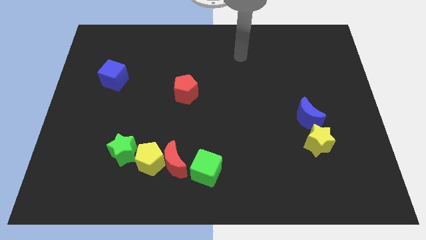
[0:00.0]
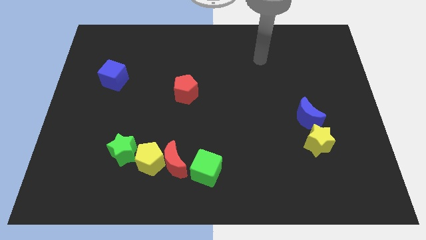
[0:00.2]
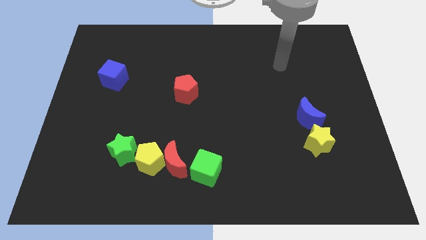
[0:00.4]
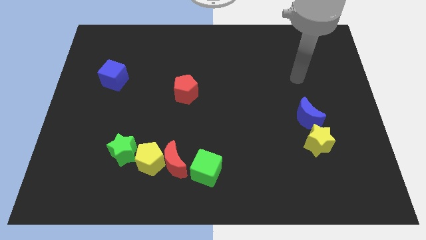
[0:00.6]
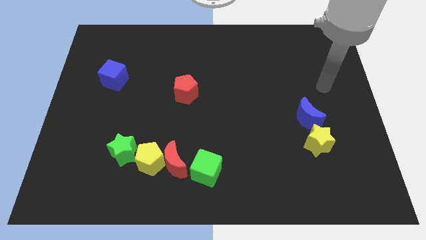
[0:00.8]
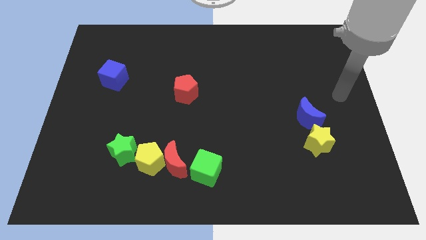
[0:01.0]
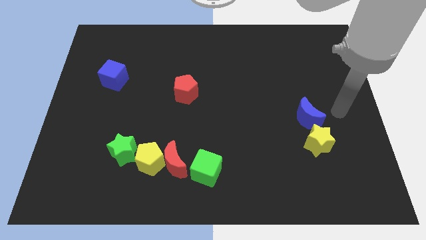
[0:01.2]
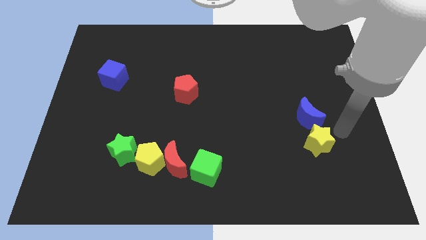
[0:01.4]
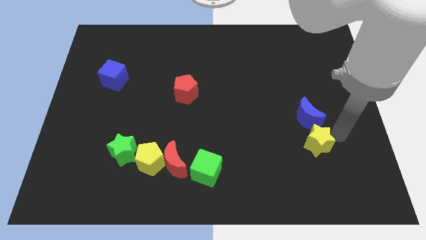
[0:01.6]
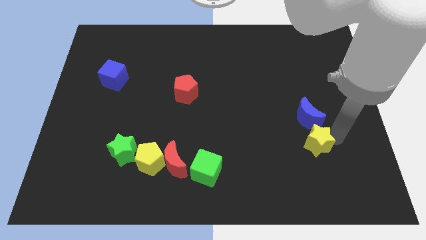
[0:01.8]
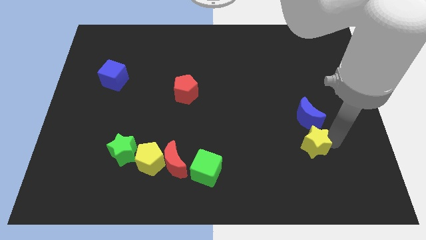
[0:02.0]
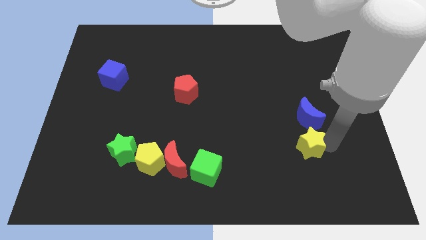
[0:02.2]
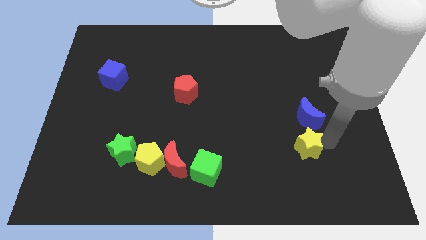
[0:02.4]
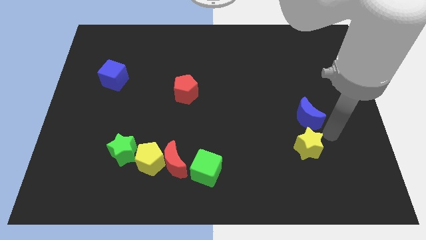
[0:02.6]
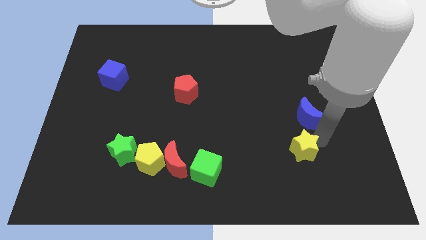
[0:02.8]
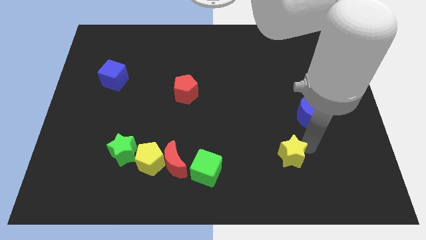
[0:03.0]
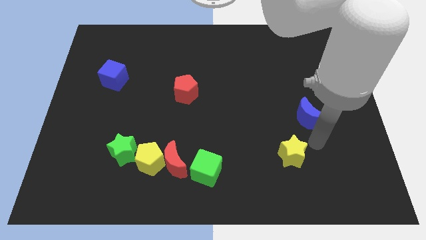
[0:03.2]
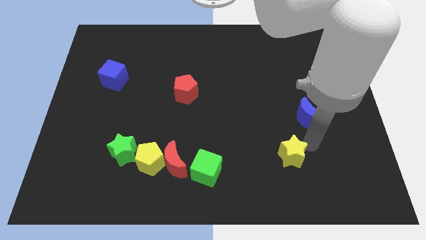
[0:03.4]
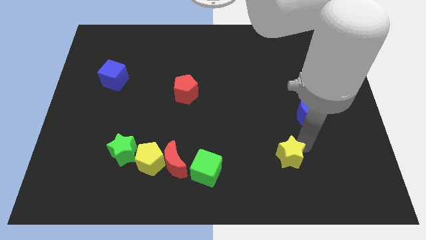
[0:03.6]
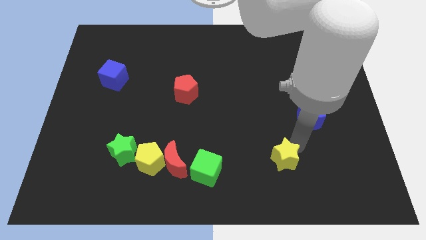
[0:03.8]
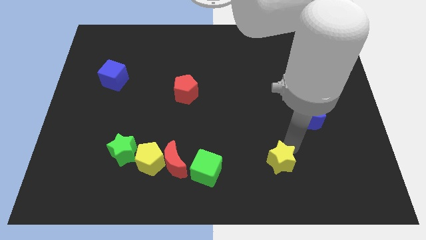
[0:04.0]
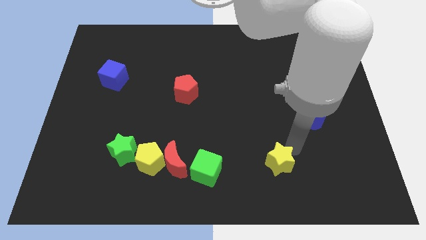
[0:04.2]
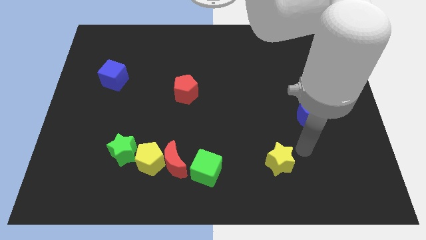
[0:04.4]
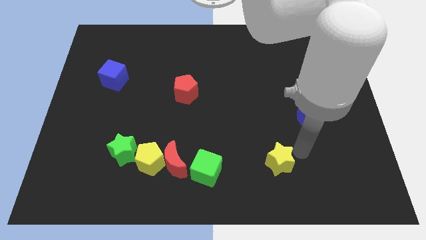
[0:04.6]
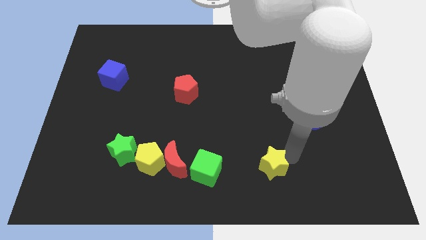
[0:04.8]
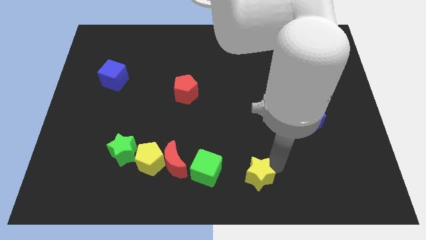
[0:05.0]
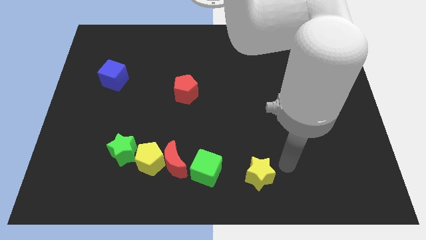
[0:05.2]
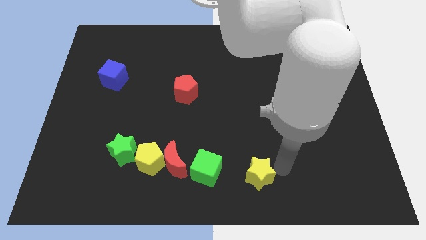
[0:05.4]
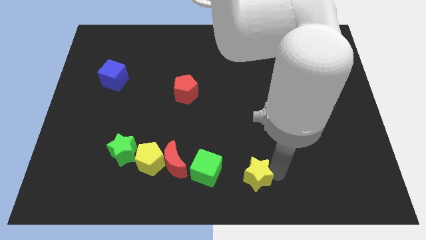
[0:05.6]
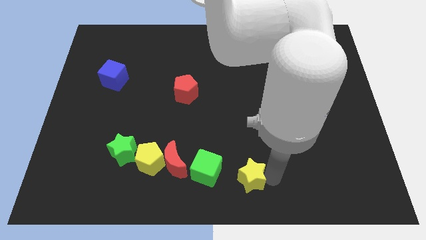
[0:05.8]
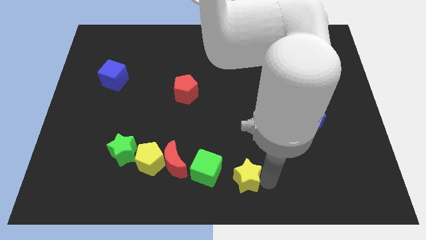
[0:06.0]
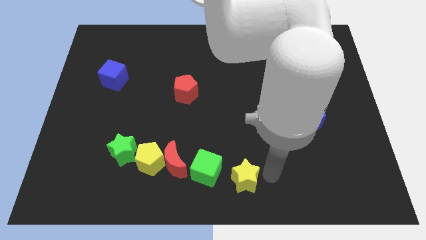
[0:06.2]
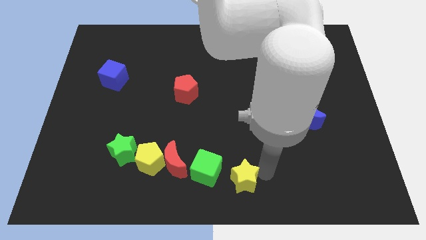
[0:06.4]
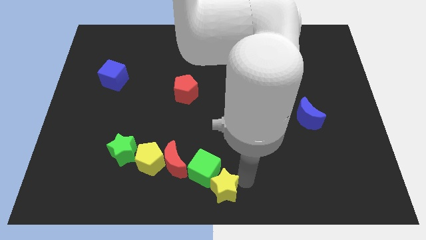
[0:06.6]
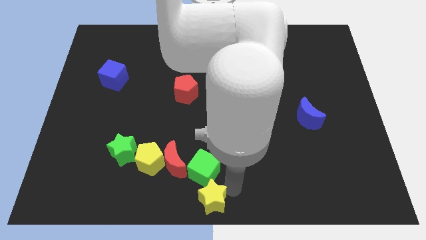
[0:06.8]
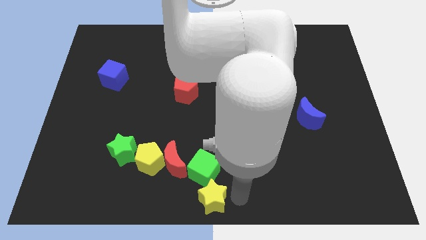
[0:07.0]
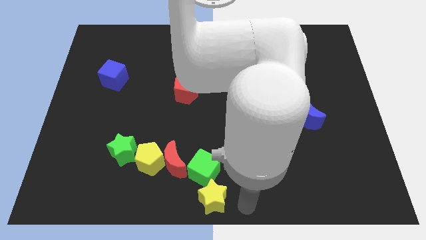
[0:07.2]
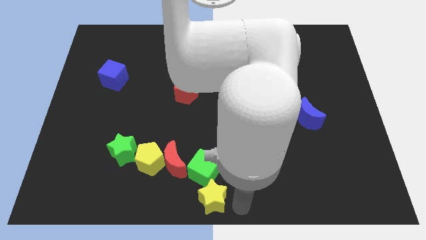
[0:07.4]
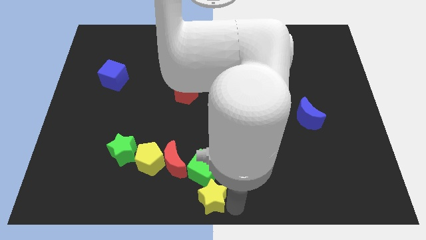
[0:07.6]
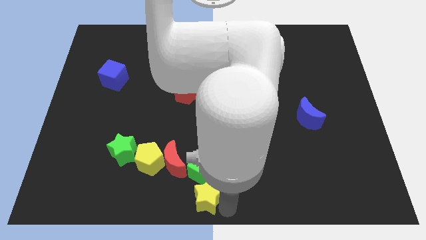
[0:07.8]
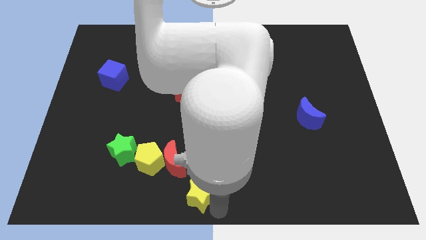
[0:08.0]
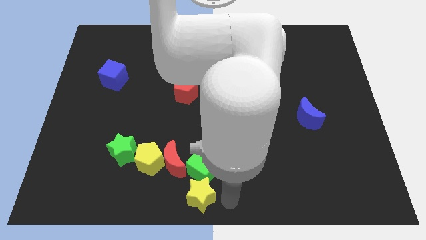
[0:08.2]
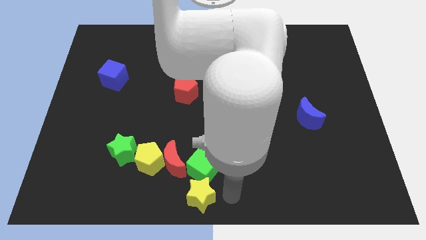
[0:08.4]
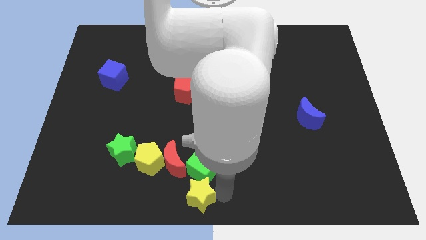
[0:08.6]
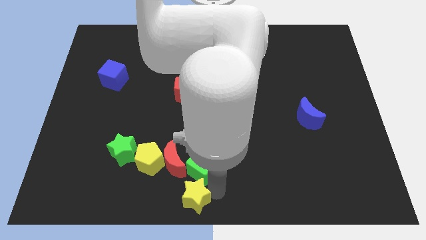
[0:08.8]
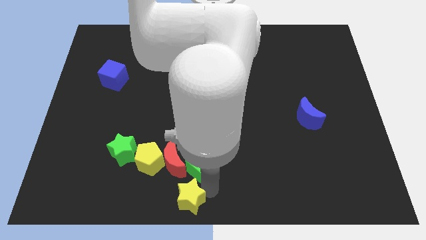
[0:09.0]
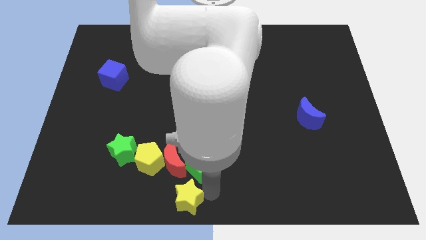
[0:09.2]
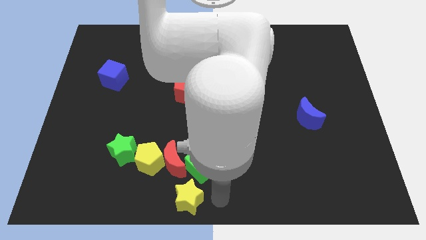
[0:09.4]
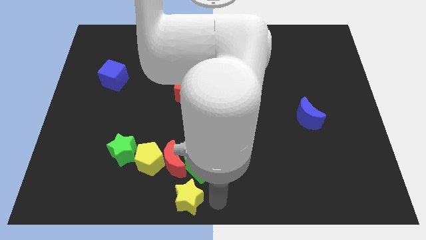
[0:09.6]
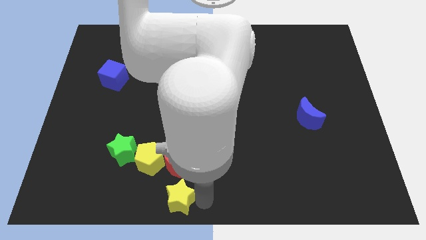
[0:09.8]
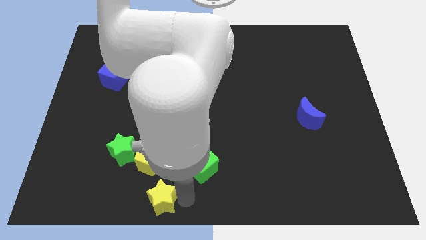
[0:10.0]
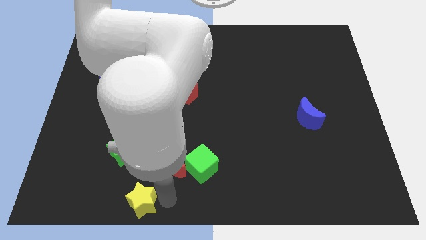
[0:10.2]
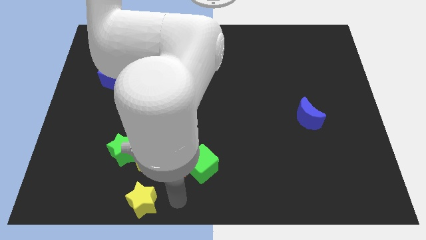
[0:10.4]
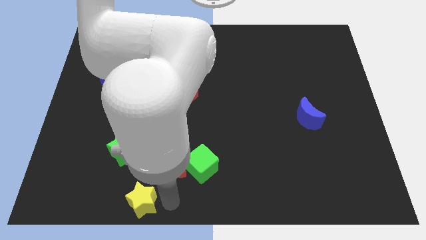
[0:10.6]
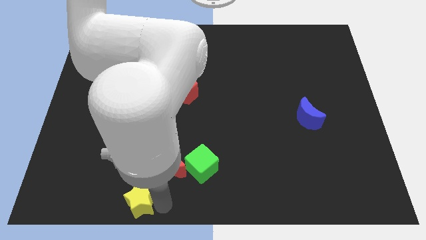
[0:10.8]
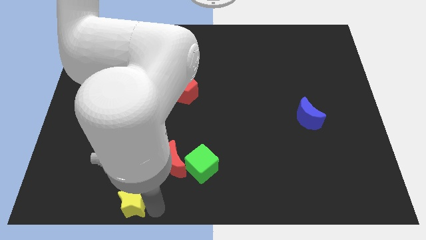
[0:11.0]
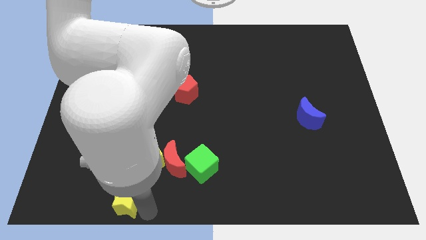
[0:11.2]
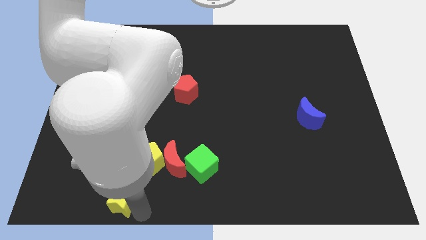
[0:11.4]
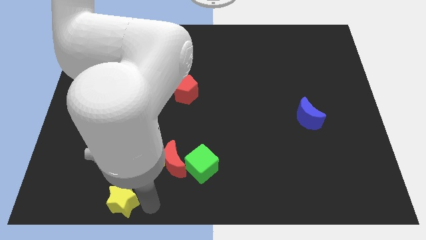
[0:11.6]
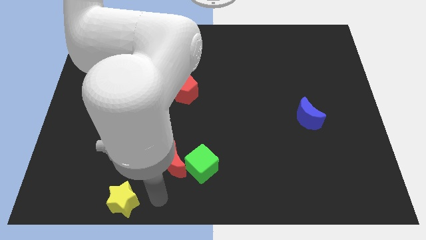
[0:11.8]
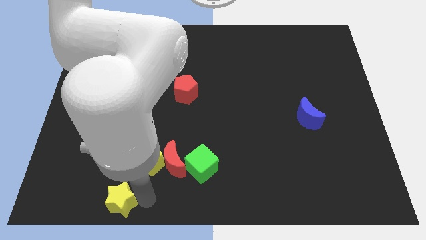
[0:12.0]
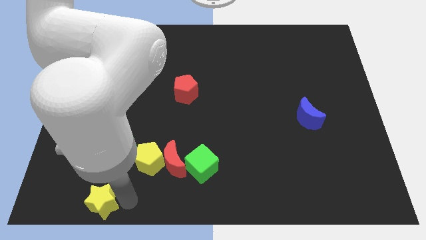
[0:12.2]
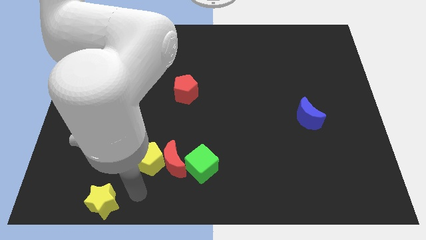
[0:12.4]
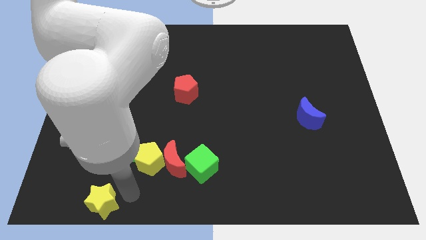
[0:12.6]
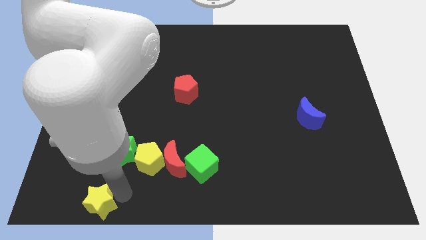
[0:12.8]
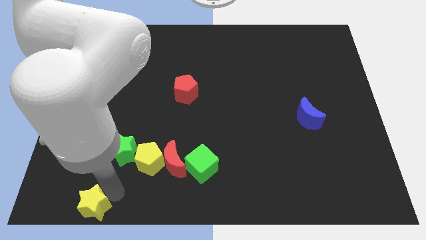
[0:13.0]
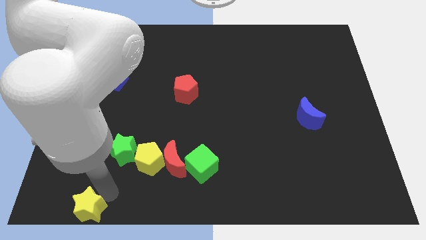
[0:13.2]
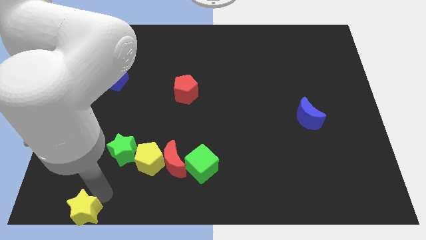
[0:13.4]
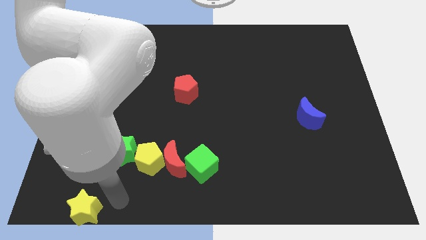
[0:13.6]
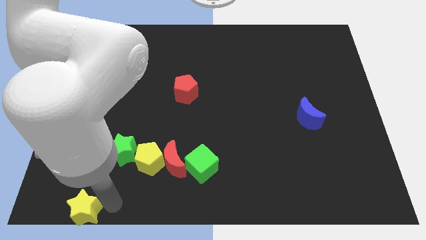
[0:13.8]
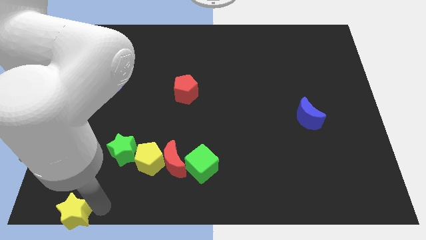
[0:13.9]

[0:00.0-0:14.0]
move the yellow star to the lower left corner
